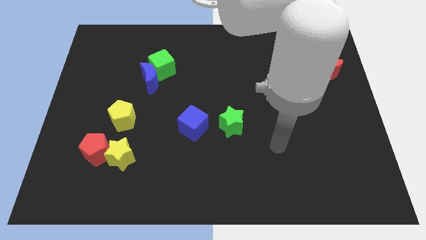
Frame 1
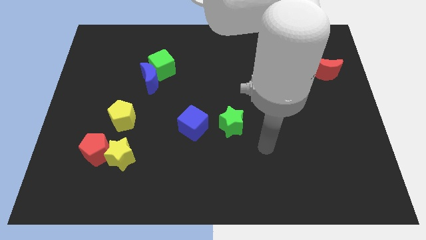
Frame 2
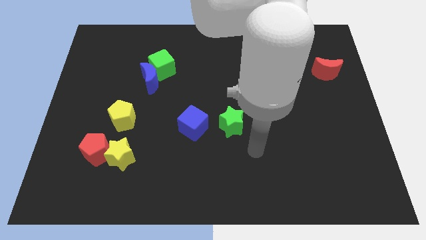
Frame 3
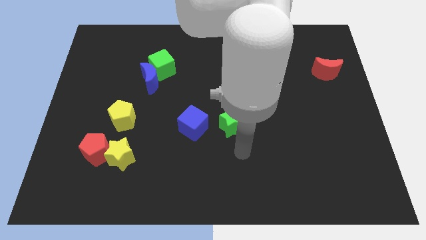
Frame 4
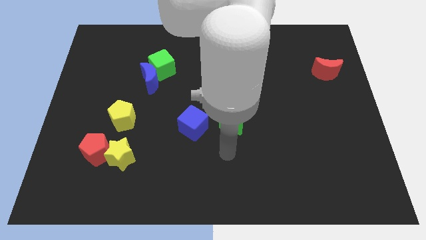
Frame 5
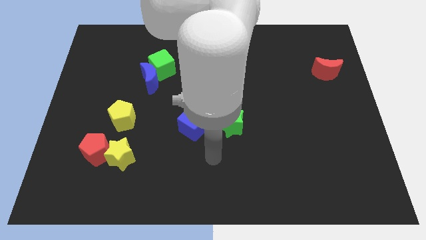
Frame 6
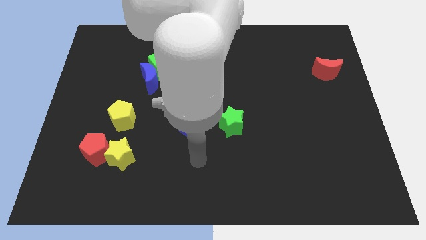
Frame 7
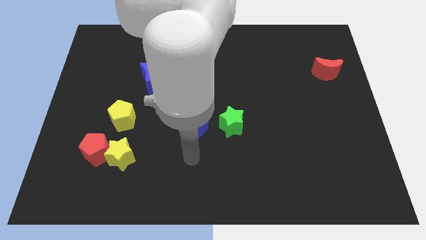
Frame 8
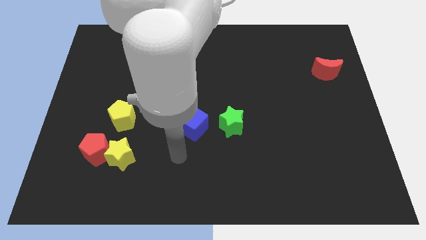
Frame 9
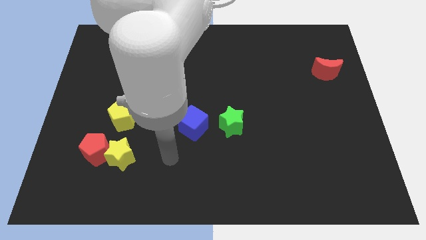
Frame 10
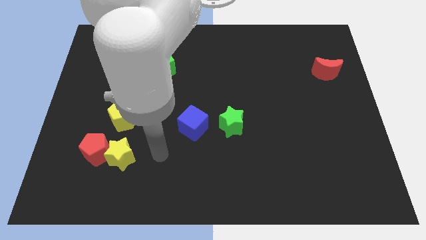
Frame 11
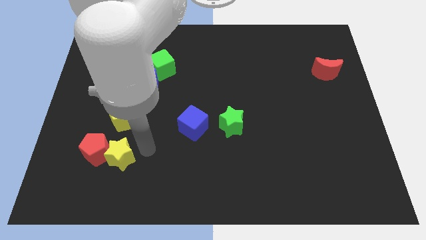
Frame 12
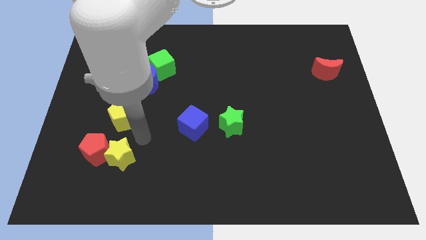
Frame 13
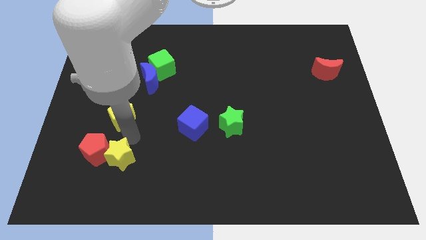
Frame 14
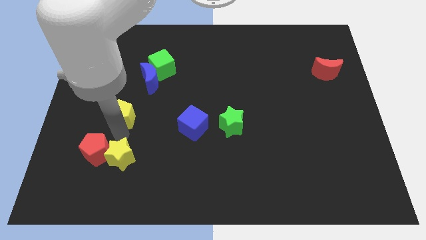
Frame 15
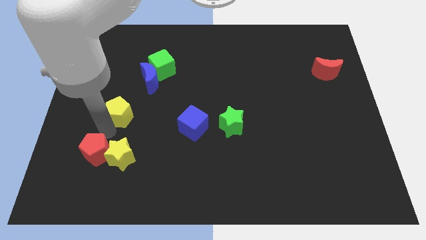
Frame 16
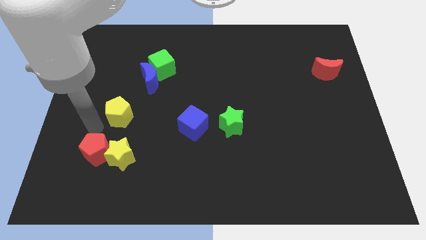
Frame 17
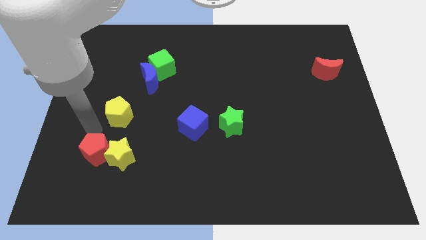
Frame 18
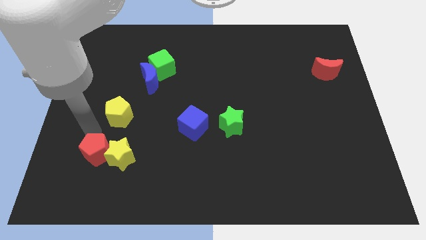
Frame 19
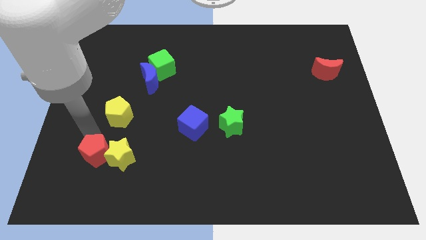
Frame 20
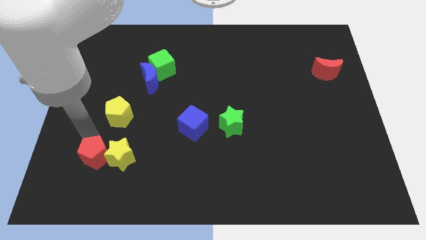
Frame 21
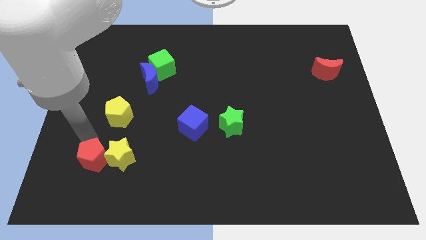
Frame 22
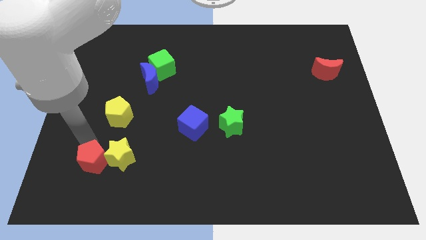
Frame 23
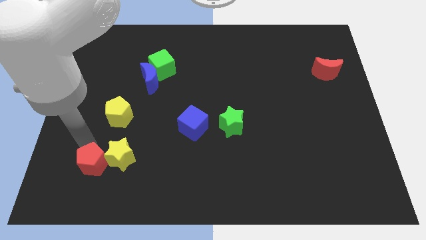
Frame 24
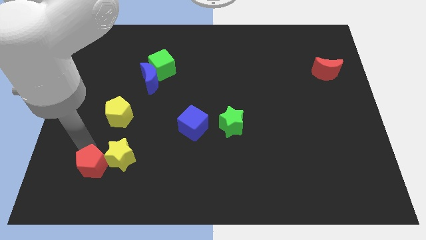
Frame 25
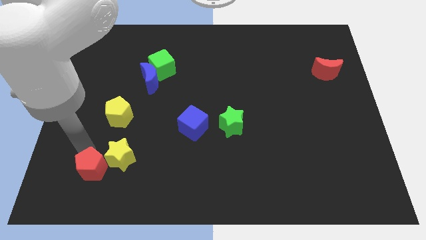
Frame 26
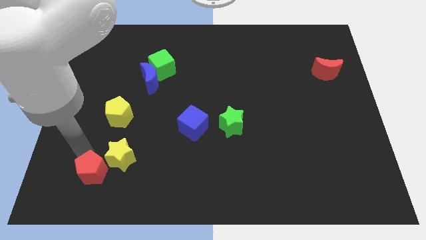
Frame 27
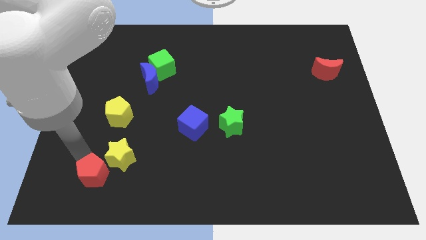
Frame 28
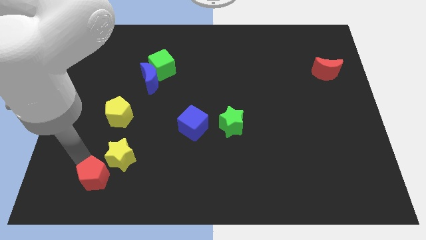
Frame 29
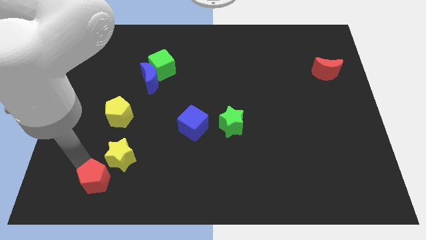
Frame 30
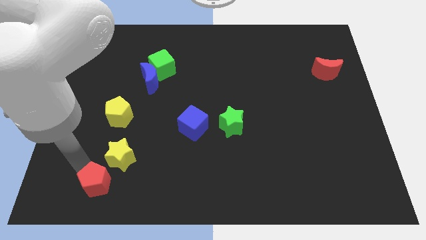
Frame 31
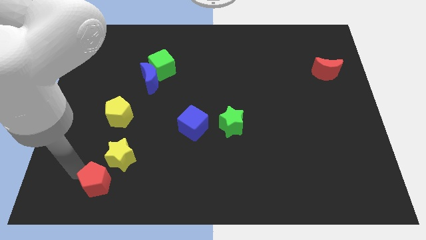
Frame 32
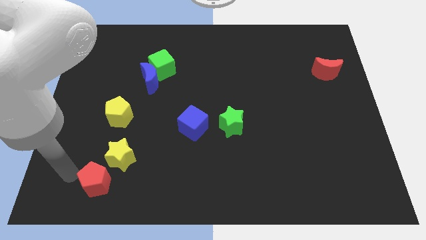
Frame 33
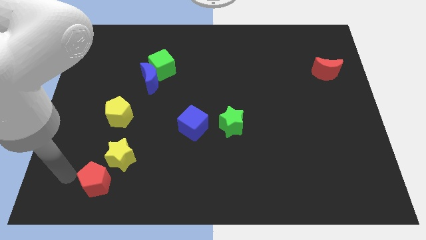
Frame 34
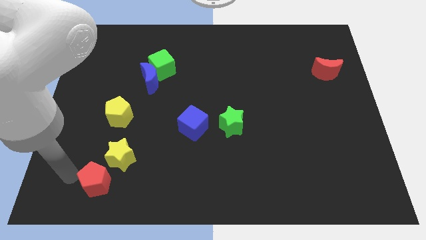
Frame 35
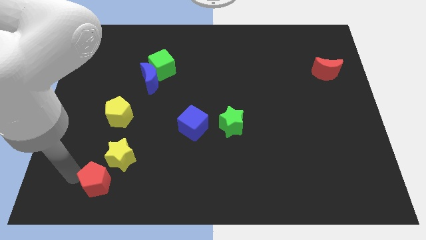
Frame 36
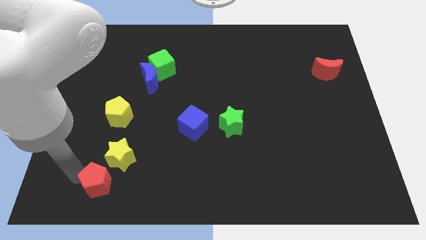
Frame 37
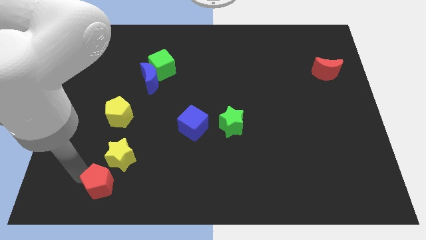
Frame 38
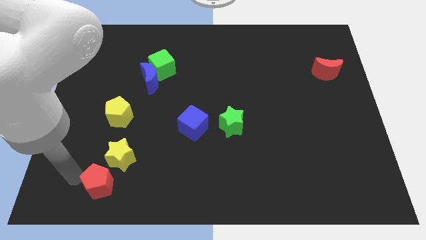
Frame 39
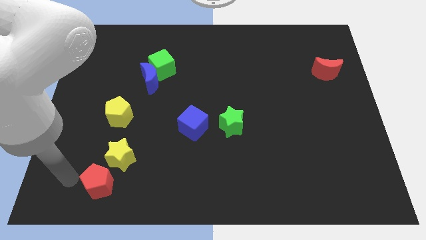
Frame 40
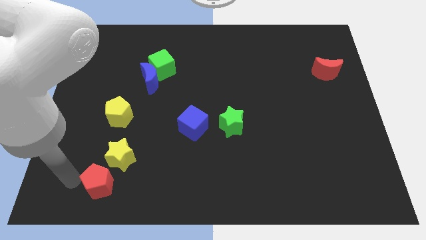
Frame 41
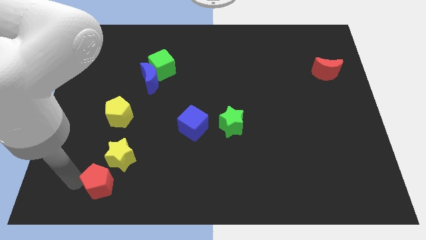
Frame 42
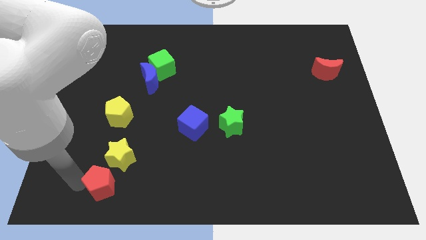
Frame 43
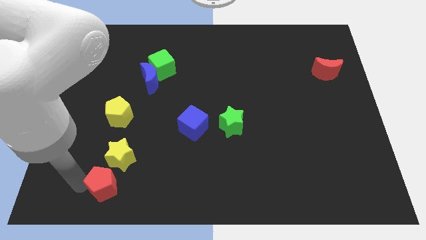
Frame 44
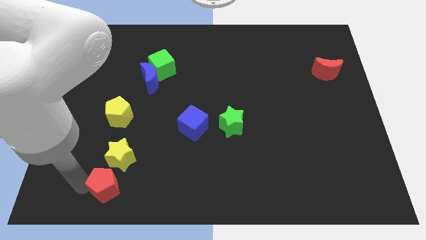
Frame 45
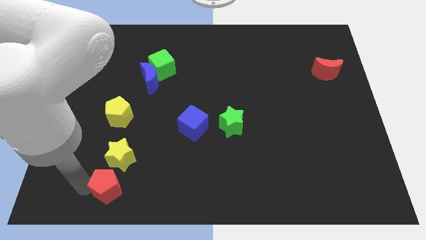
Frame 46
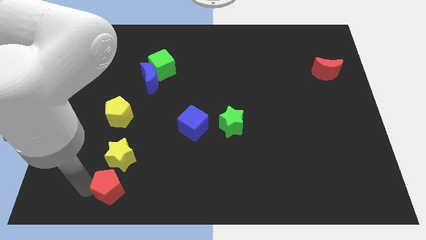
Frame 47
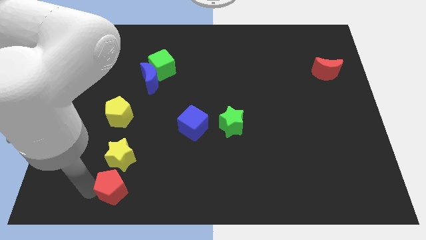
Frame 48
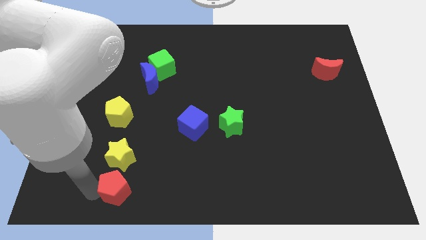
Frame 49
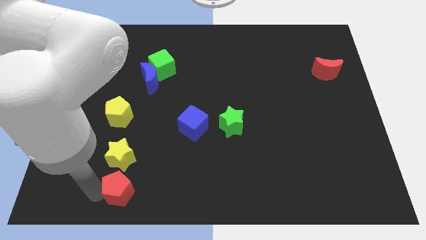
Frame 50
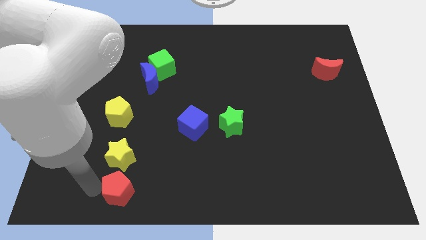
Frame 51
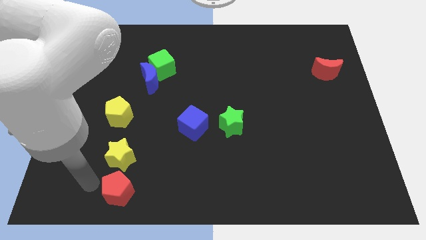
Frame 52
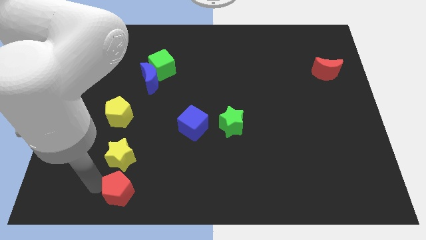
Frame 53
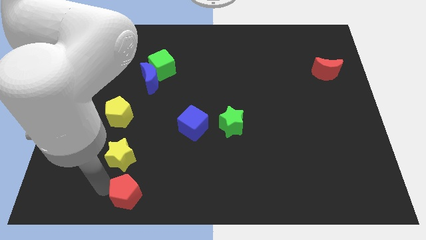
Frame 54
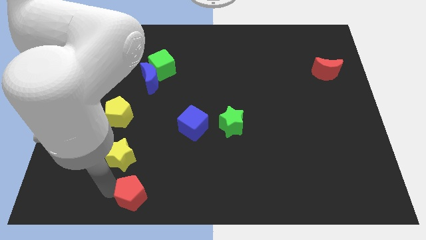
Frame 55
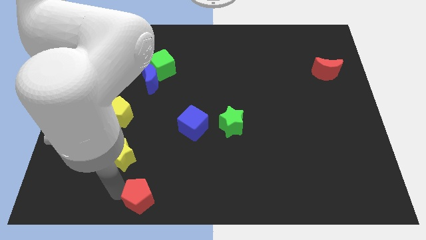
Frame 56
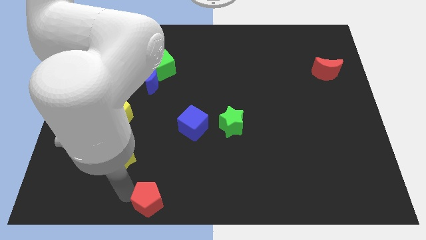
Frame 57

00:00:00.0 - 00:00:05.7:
push the red pentagon to the bottom

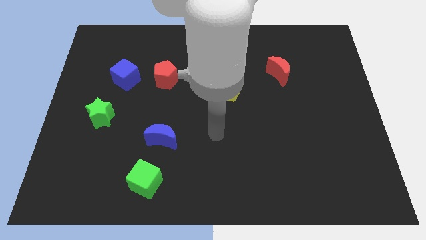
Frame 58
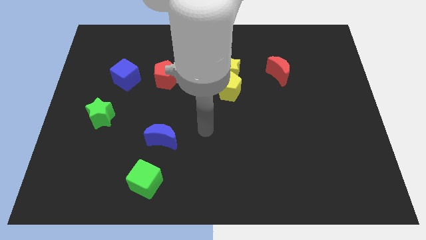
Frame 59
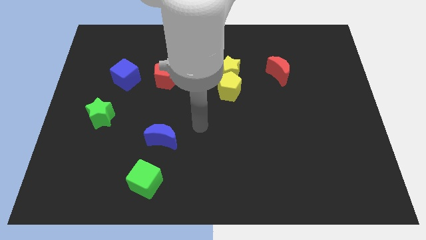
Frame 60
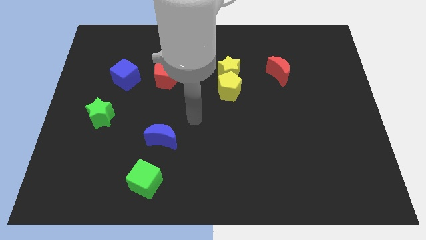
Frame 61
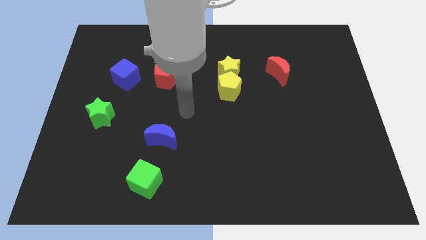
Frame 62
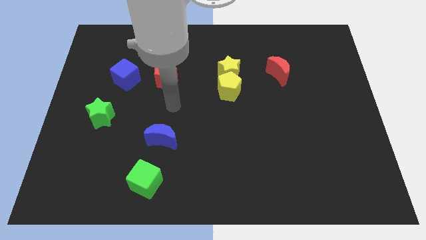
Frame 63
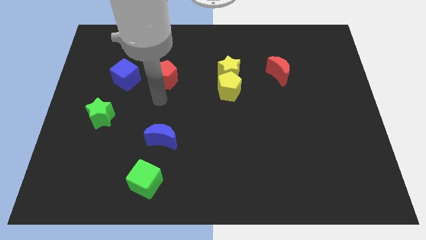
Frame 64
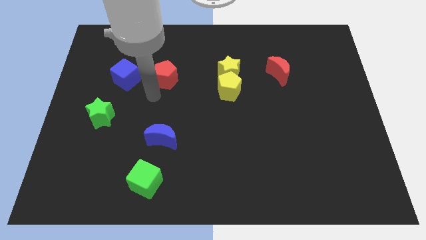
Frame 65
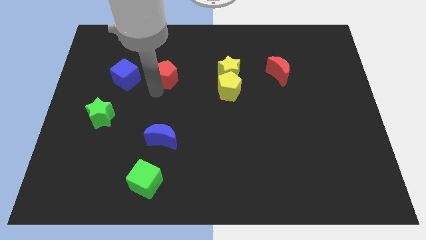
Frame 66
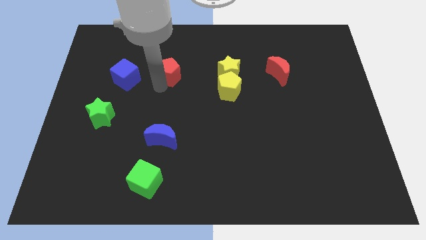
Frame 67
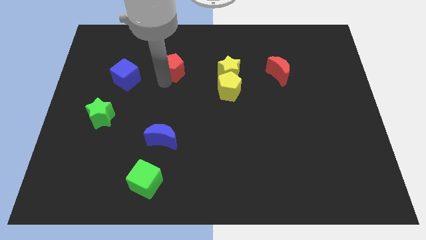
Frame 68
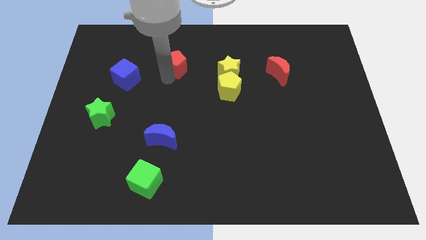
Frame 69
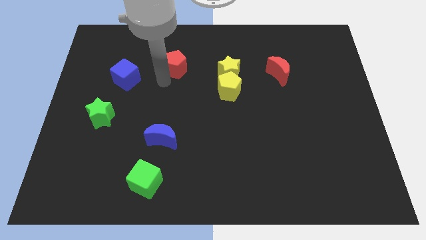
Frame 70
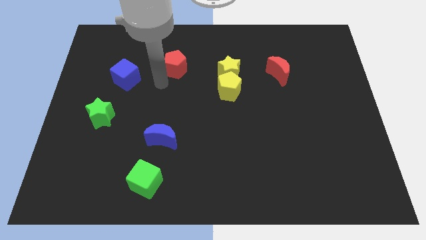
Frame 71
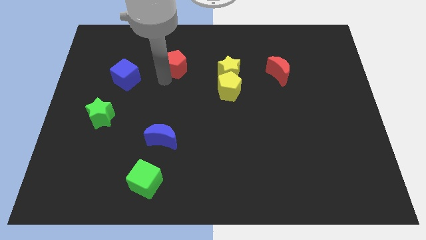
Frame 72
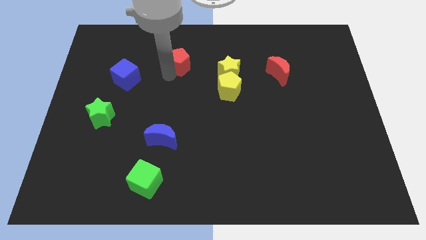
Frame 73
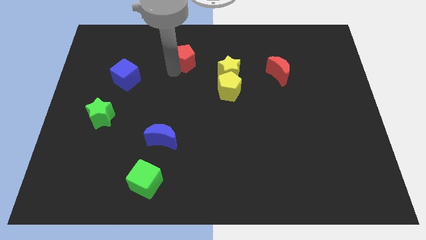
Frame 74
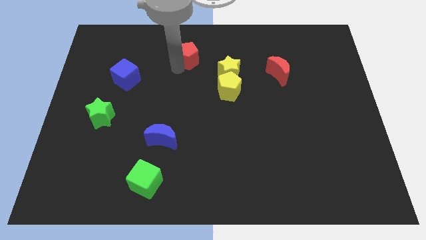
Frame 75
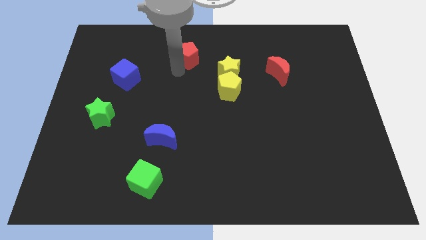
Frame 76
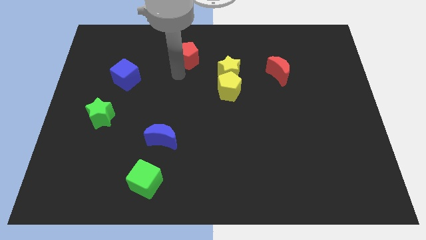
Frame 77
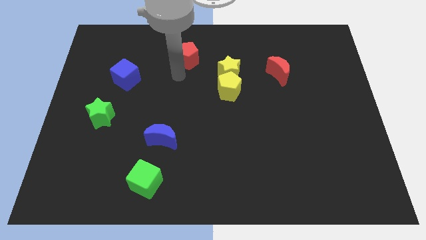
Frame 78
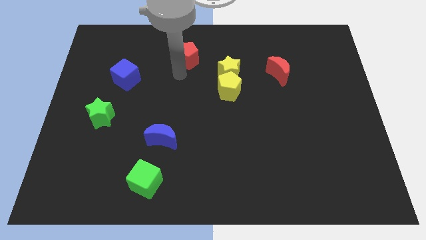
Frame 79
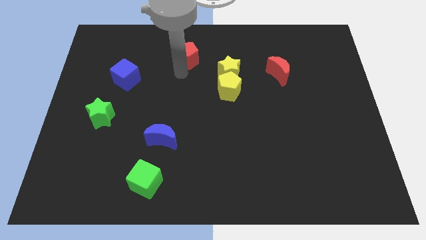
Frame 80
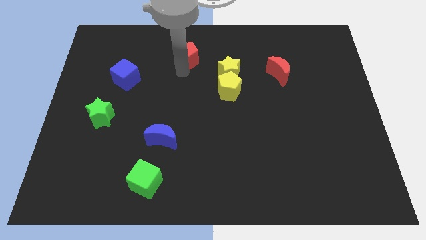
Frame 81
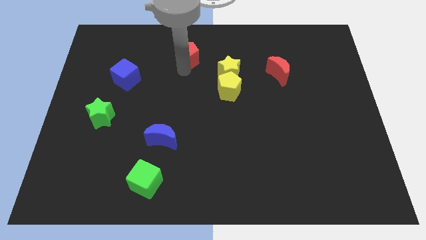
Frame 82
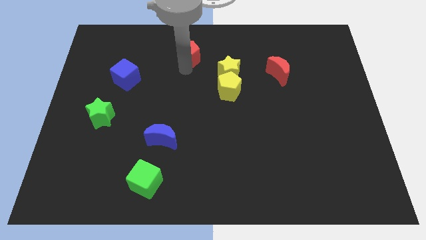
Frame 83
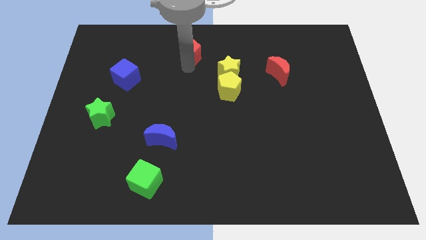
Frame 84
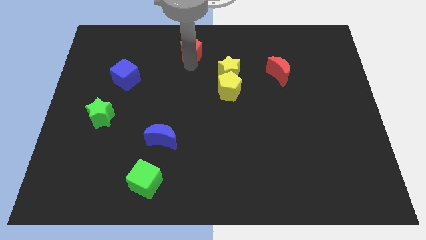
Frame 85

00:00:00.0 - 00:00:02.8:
move the red pentagon to the top
